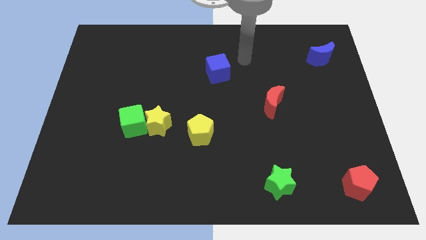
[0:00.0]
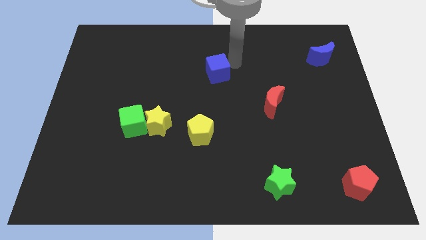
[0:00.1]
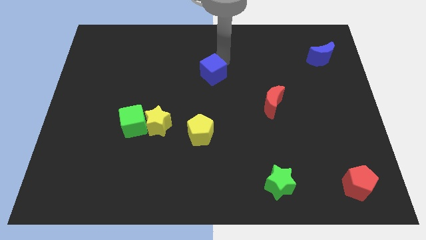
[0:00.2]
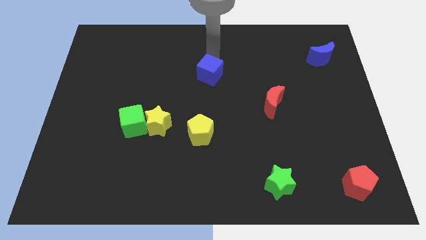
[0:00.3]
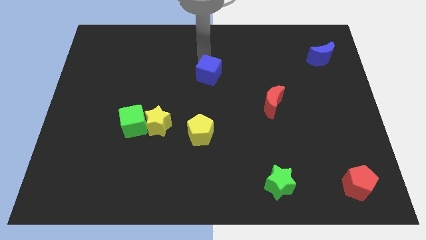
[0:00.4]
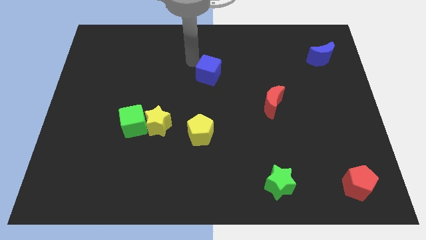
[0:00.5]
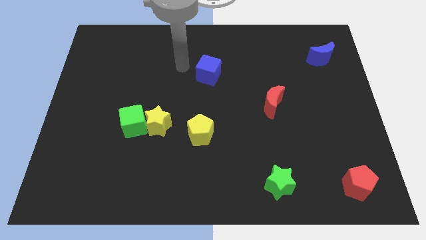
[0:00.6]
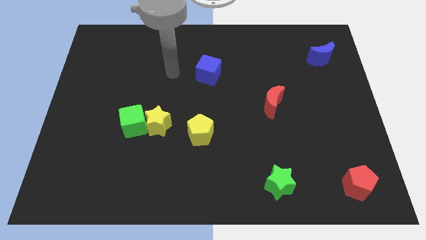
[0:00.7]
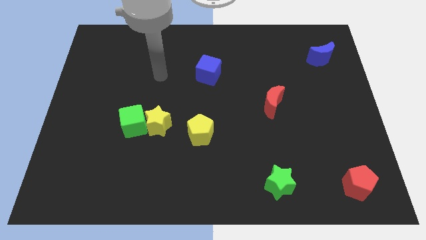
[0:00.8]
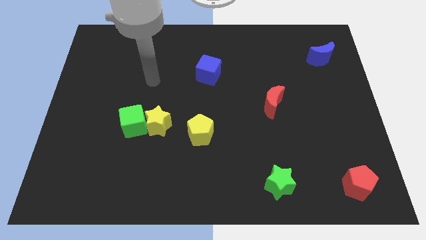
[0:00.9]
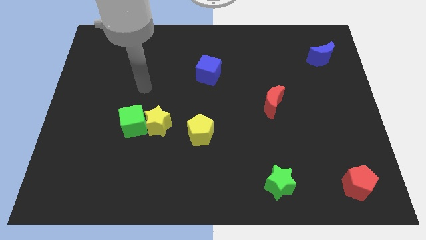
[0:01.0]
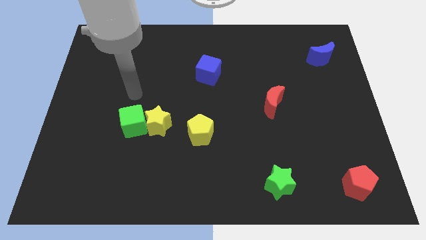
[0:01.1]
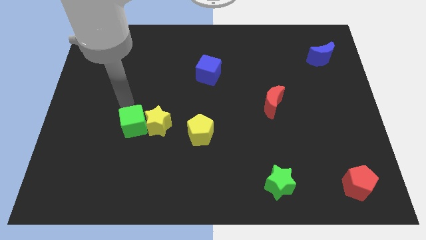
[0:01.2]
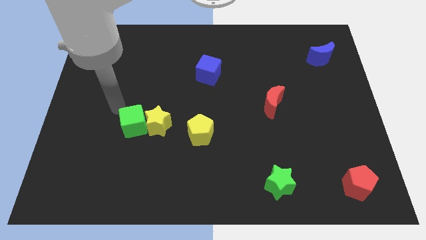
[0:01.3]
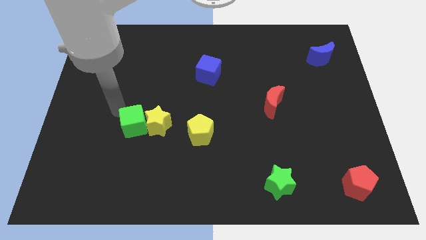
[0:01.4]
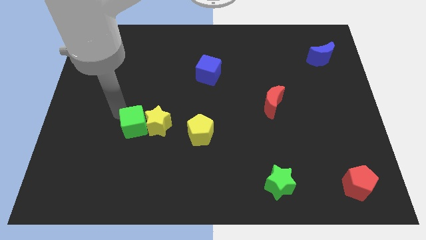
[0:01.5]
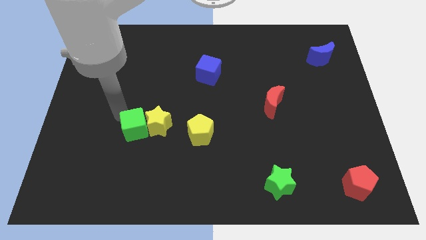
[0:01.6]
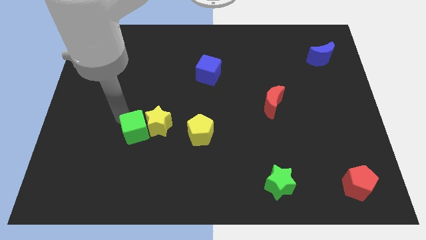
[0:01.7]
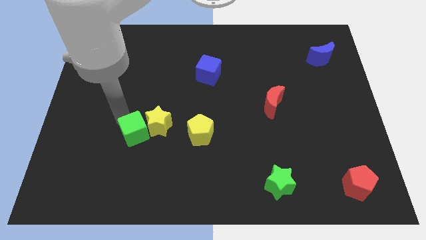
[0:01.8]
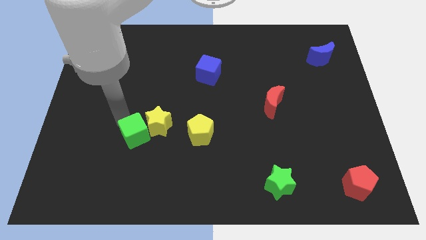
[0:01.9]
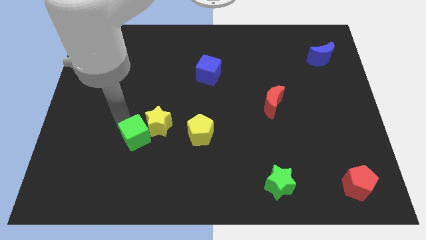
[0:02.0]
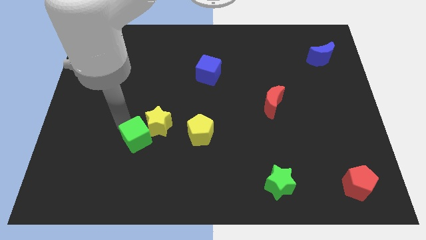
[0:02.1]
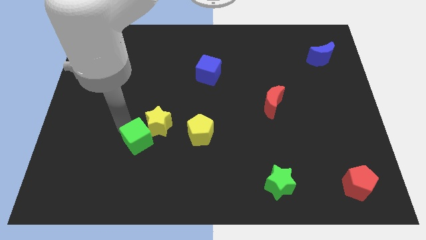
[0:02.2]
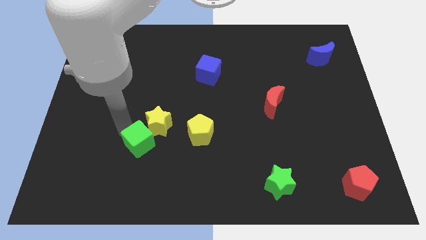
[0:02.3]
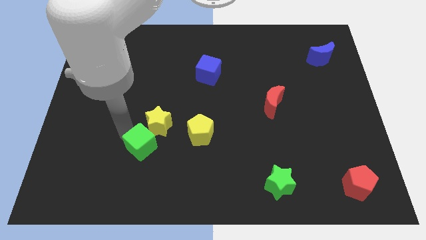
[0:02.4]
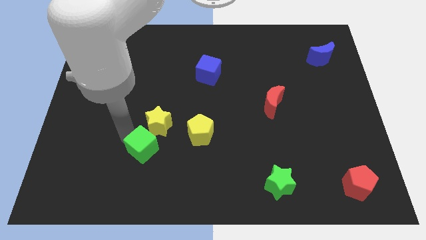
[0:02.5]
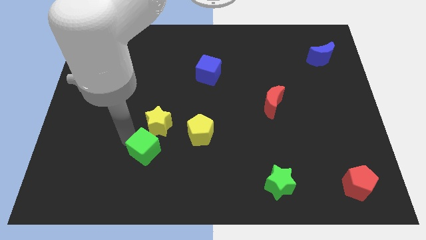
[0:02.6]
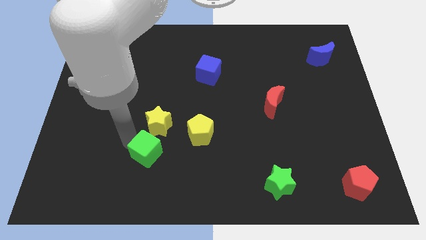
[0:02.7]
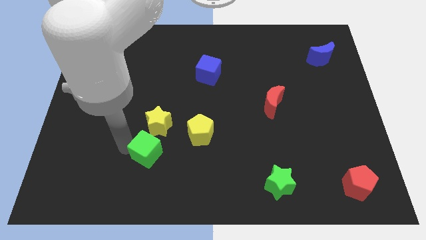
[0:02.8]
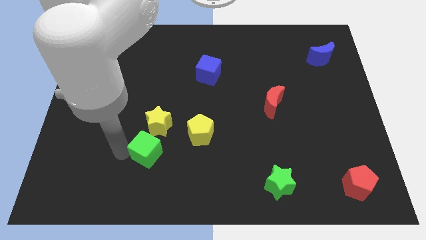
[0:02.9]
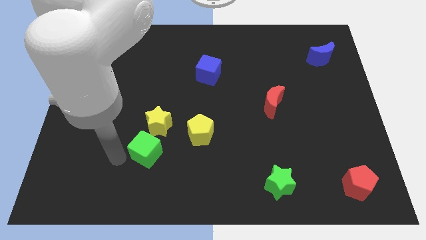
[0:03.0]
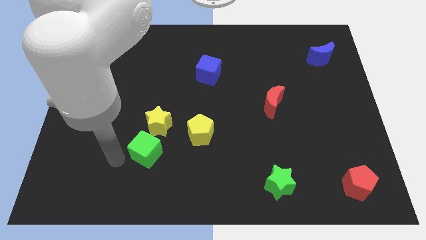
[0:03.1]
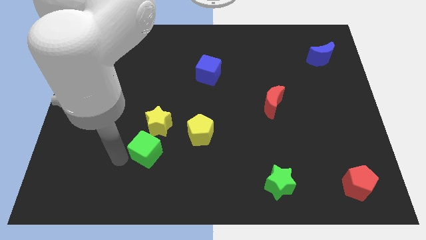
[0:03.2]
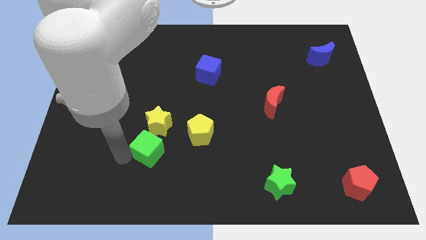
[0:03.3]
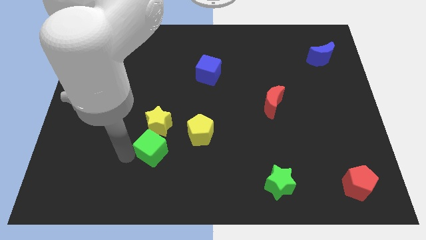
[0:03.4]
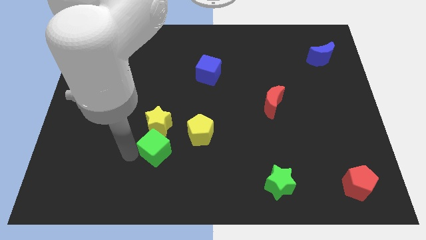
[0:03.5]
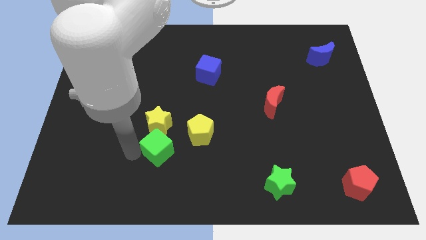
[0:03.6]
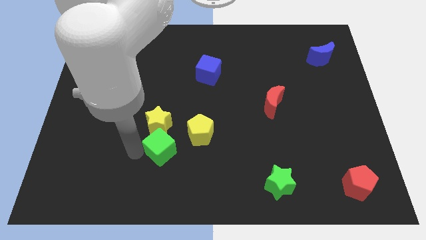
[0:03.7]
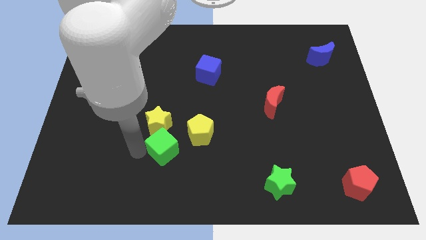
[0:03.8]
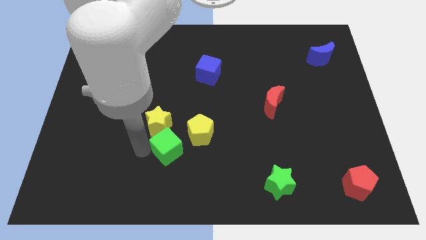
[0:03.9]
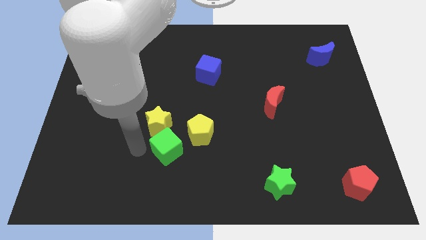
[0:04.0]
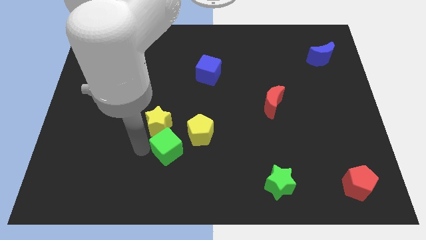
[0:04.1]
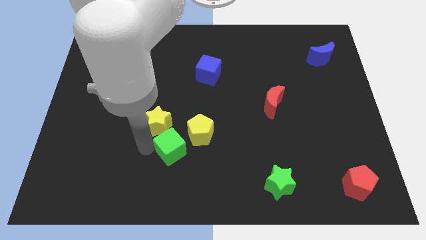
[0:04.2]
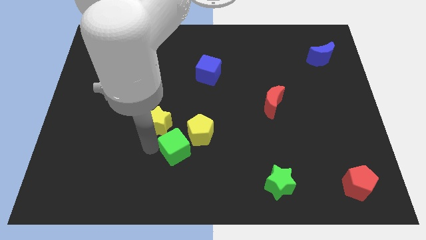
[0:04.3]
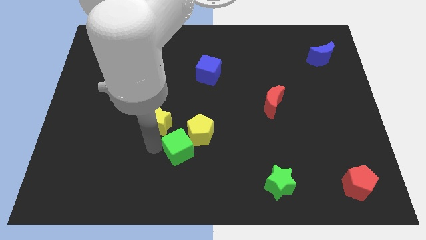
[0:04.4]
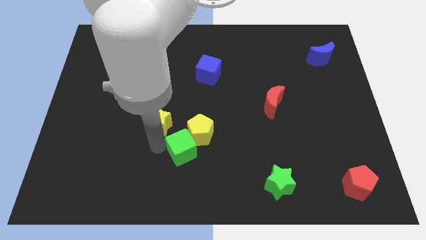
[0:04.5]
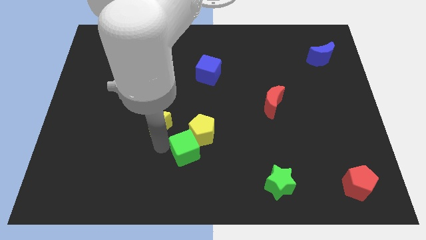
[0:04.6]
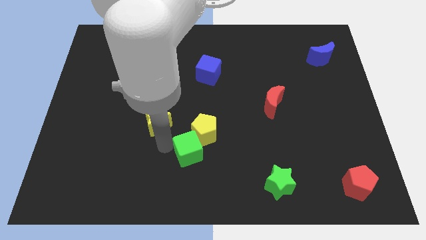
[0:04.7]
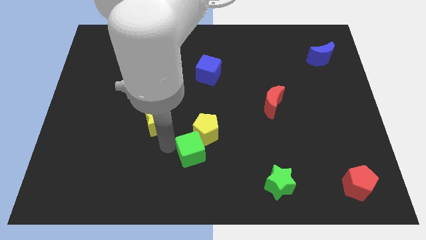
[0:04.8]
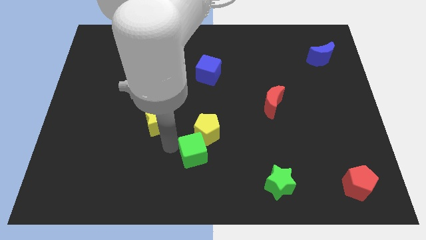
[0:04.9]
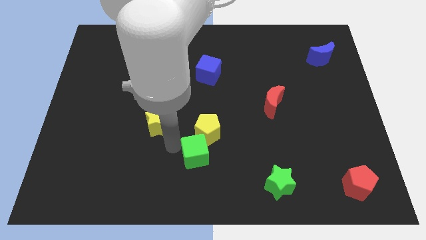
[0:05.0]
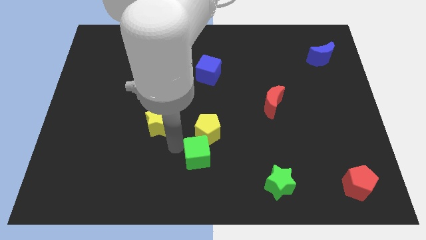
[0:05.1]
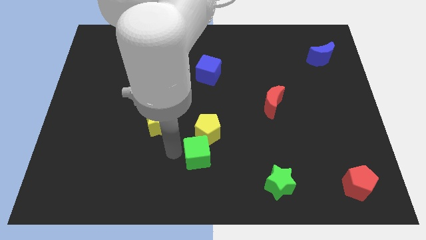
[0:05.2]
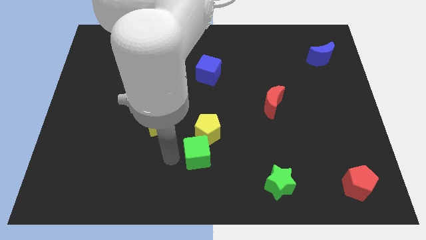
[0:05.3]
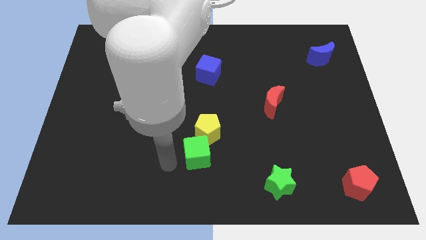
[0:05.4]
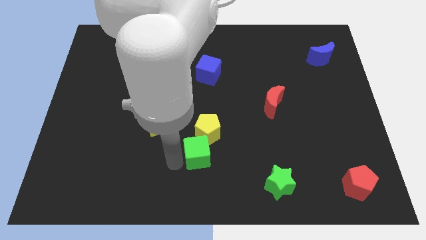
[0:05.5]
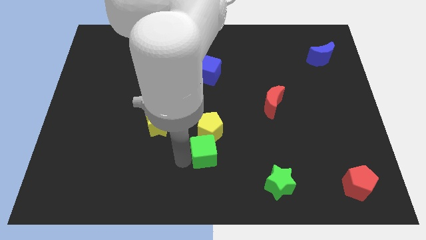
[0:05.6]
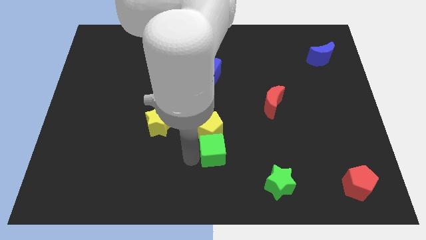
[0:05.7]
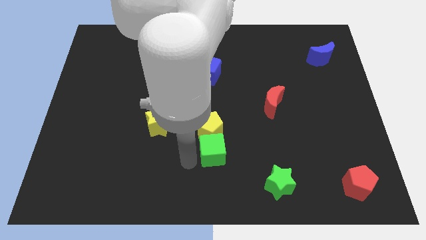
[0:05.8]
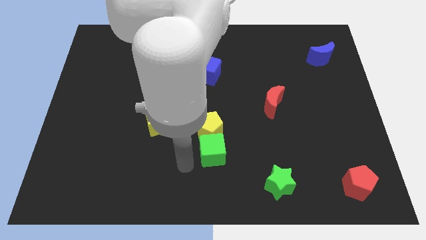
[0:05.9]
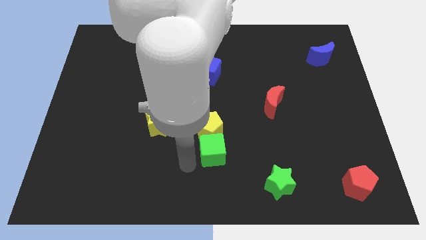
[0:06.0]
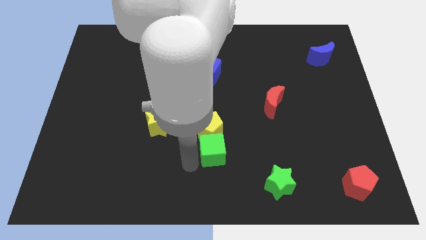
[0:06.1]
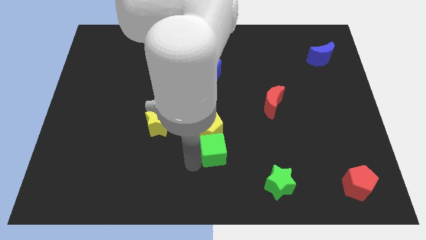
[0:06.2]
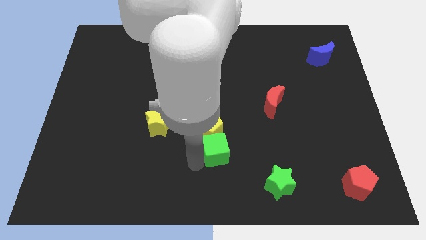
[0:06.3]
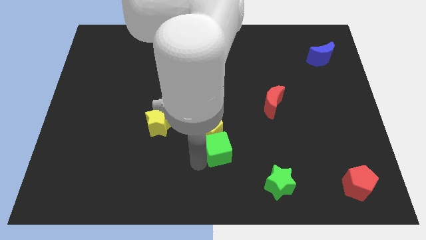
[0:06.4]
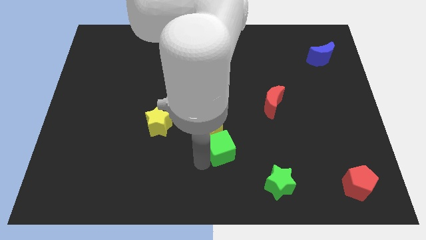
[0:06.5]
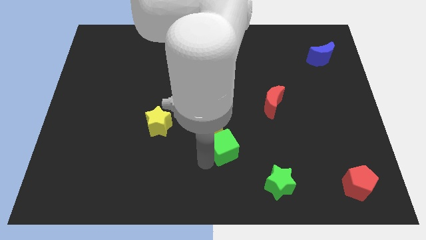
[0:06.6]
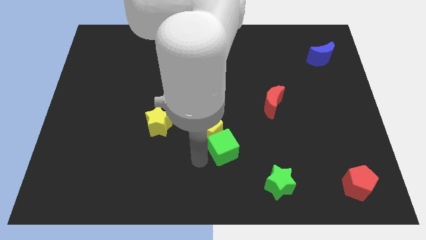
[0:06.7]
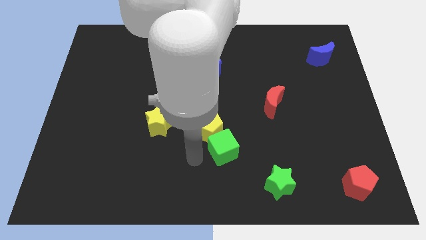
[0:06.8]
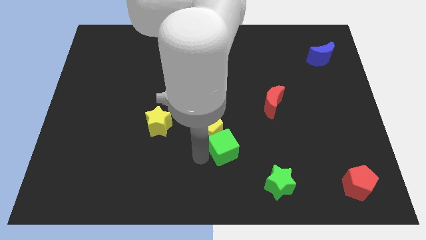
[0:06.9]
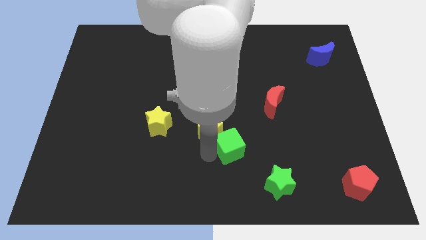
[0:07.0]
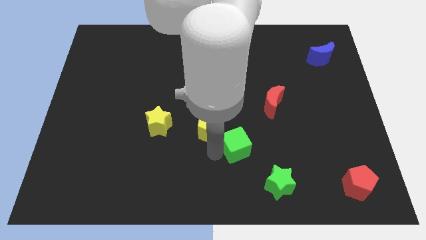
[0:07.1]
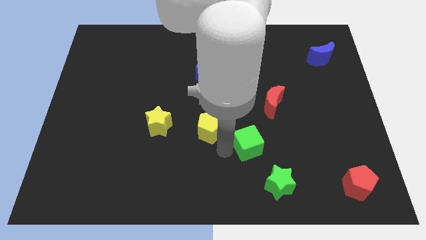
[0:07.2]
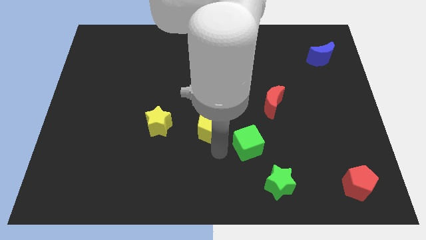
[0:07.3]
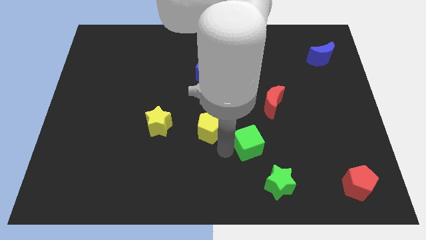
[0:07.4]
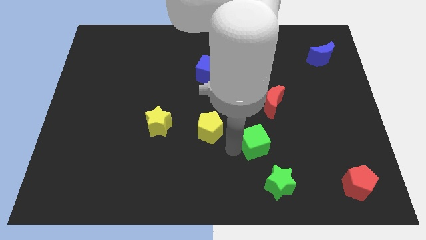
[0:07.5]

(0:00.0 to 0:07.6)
move the green cube to the top side of the green star

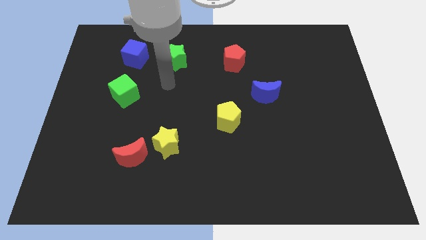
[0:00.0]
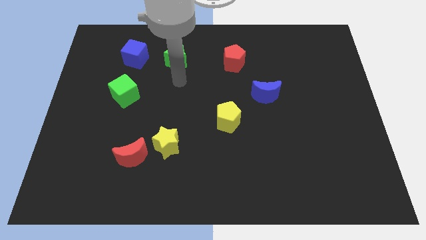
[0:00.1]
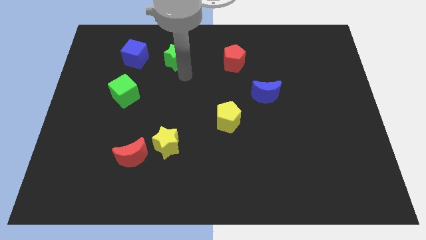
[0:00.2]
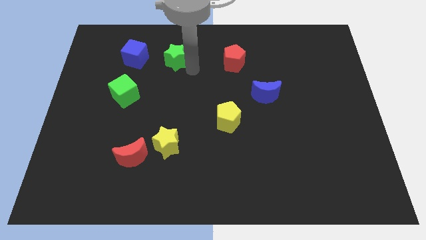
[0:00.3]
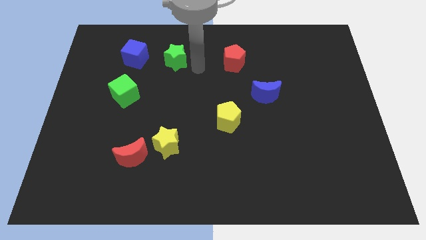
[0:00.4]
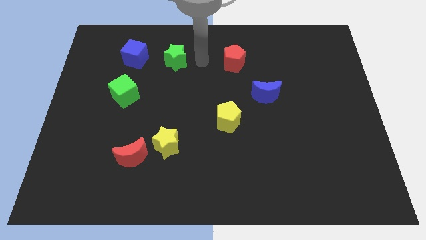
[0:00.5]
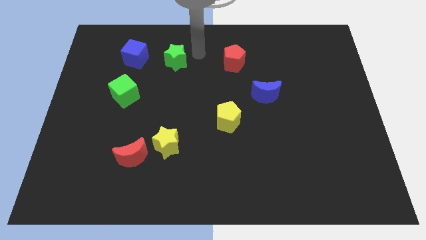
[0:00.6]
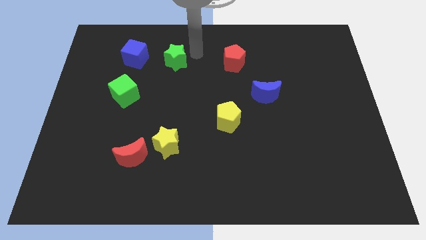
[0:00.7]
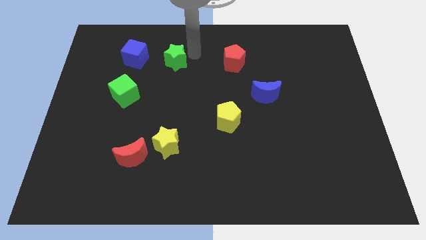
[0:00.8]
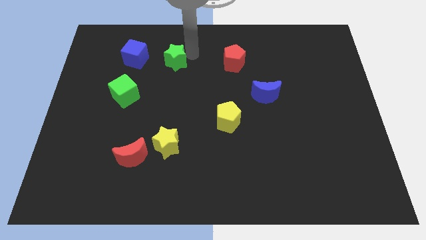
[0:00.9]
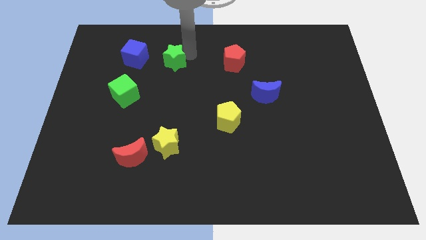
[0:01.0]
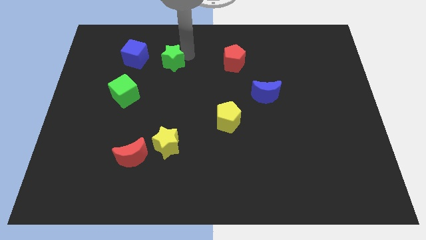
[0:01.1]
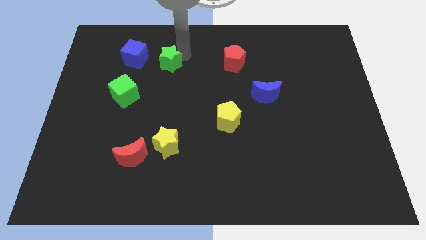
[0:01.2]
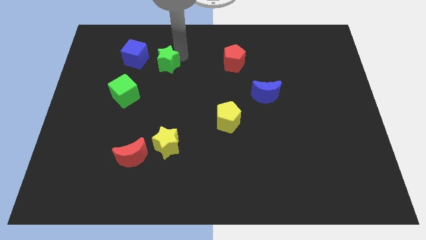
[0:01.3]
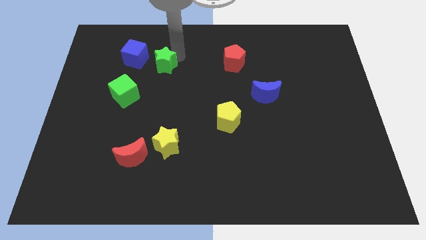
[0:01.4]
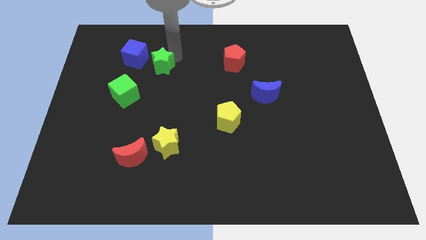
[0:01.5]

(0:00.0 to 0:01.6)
put the green star diagonally up and to the right of the green cube
